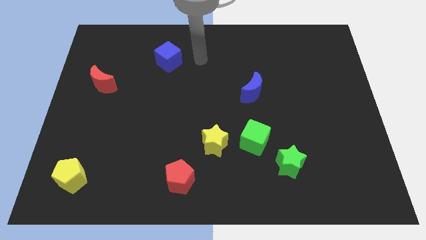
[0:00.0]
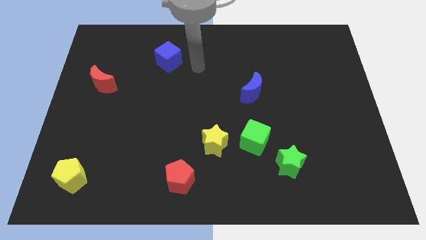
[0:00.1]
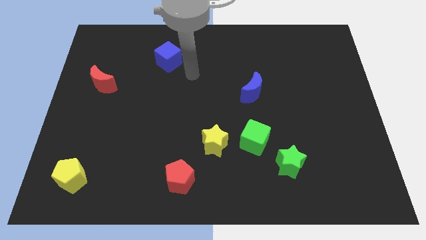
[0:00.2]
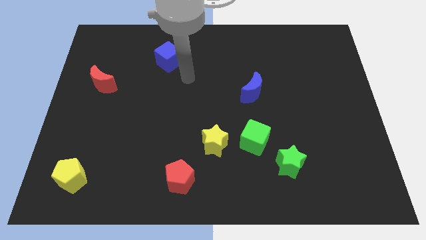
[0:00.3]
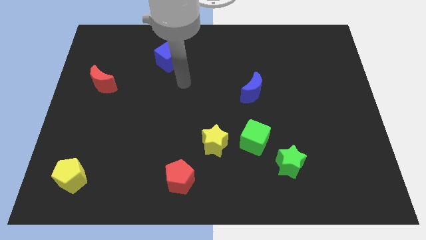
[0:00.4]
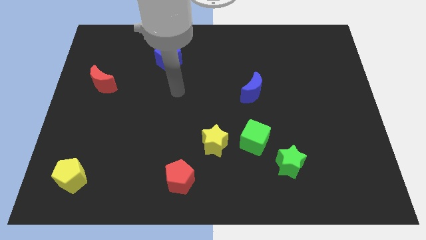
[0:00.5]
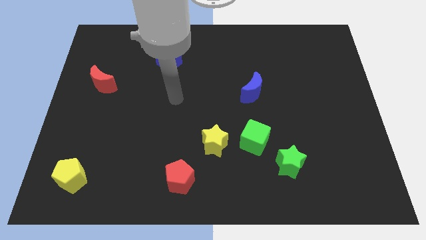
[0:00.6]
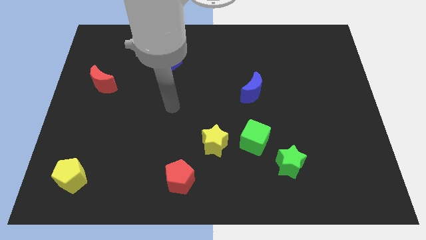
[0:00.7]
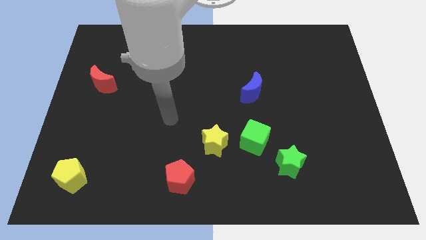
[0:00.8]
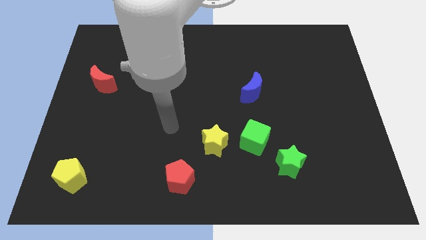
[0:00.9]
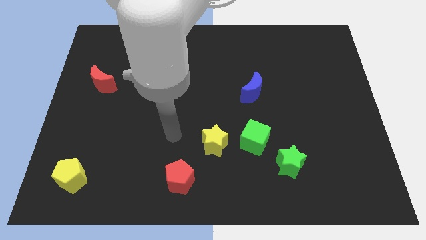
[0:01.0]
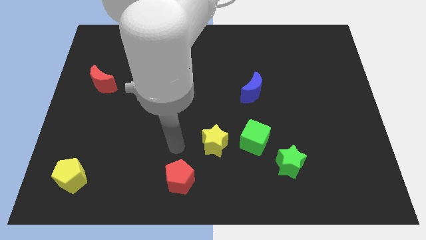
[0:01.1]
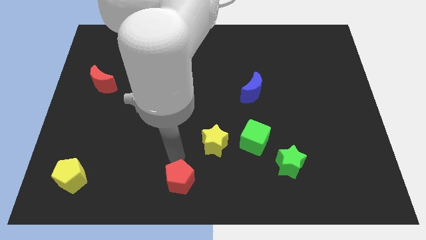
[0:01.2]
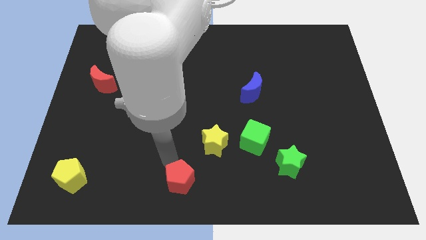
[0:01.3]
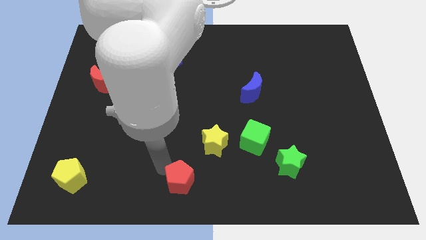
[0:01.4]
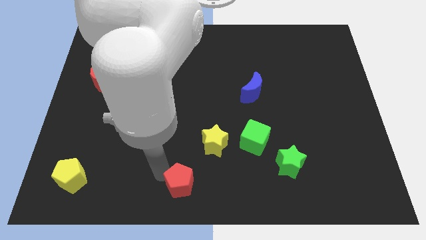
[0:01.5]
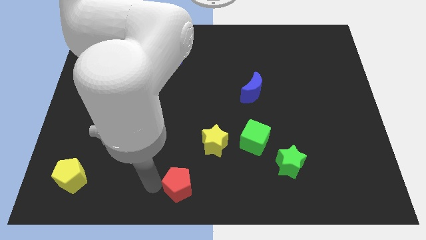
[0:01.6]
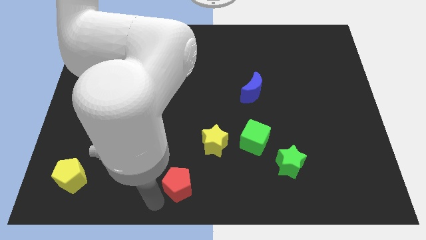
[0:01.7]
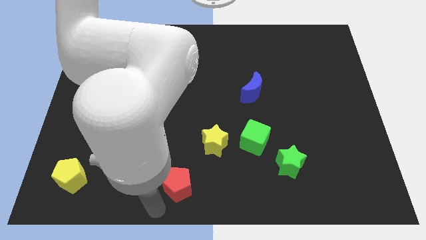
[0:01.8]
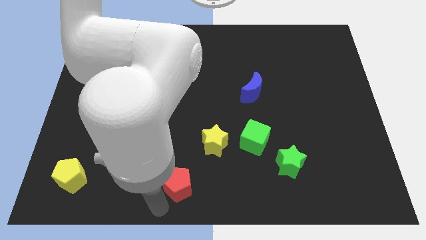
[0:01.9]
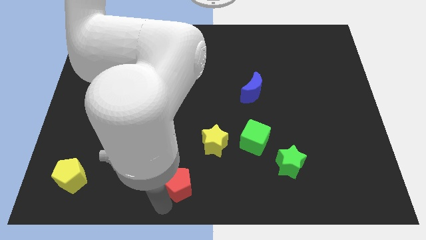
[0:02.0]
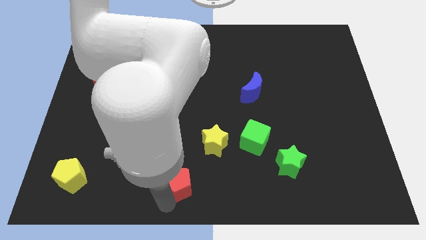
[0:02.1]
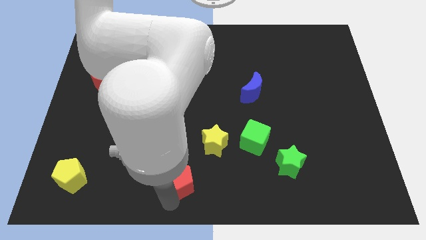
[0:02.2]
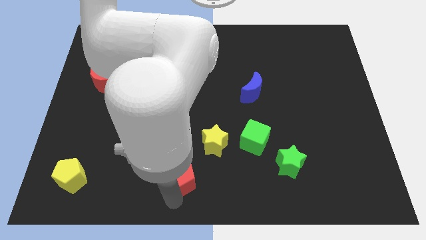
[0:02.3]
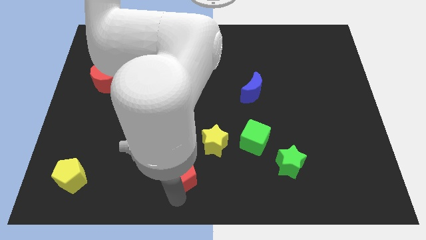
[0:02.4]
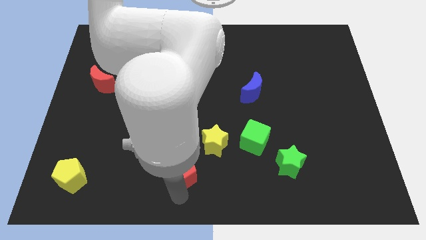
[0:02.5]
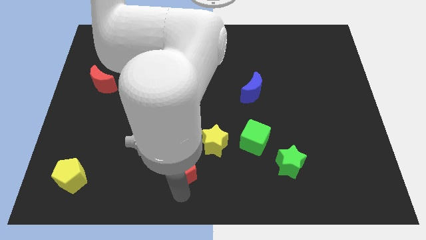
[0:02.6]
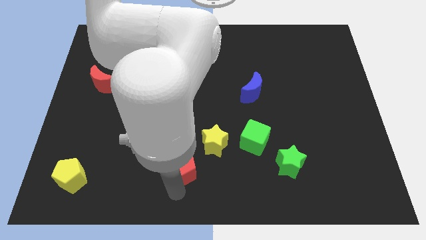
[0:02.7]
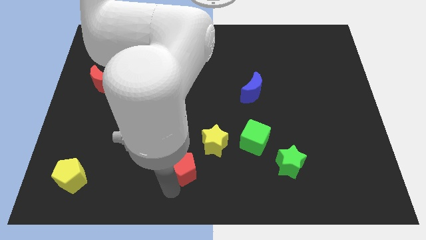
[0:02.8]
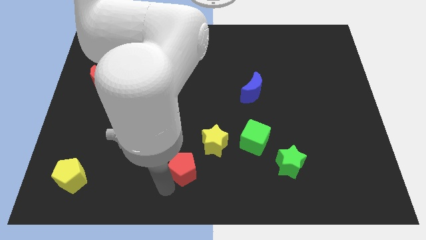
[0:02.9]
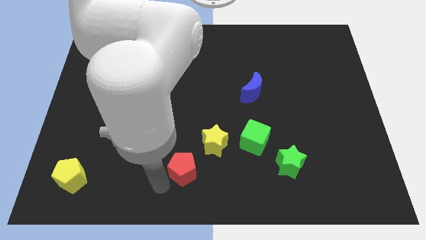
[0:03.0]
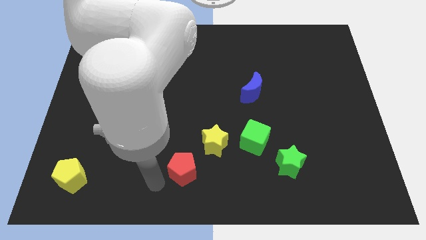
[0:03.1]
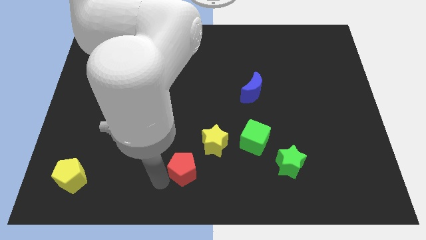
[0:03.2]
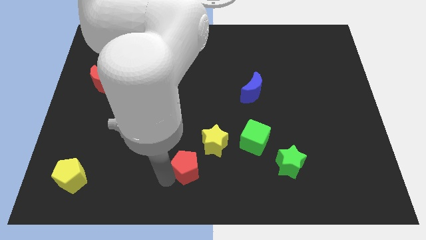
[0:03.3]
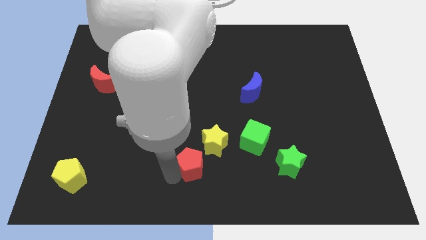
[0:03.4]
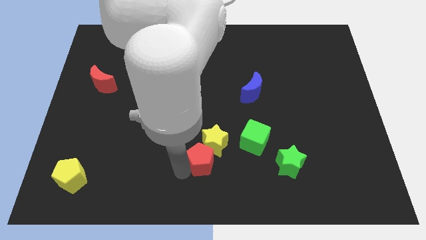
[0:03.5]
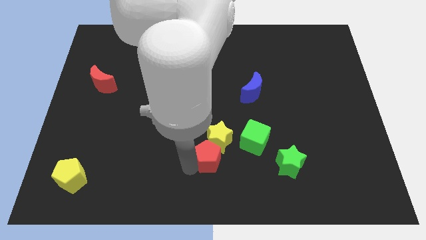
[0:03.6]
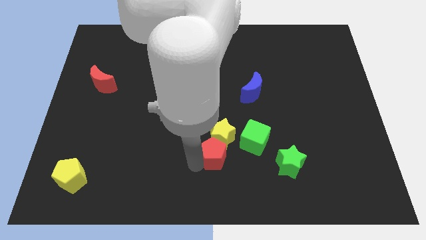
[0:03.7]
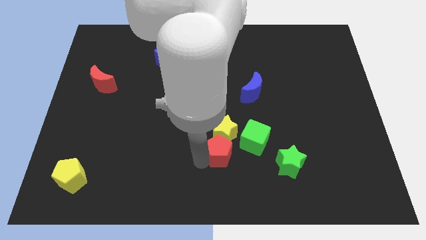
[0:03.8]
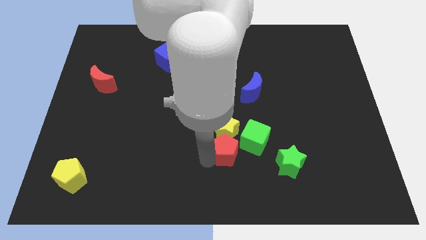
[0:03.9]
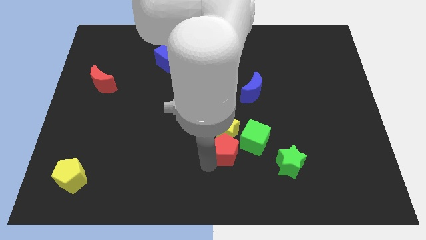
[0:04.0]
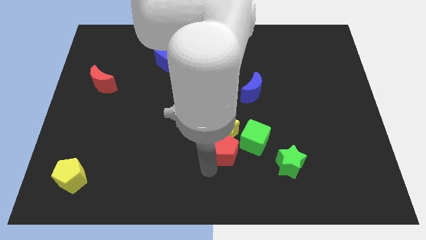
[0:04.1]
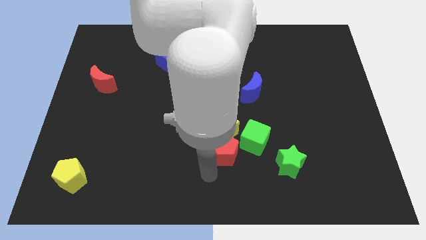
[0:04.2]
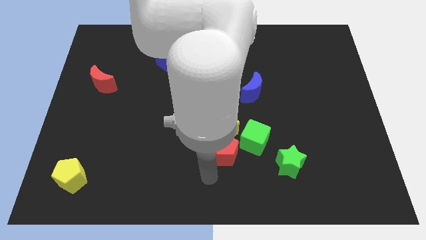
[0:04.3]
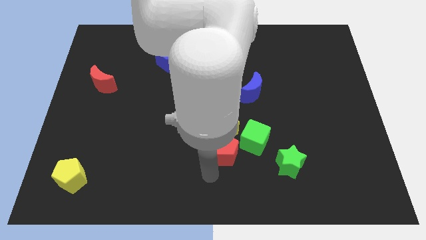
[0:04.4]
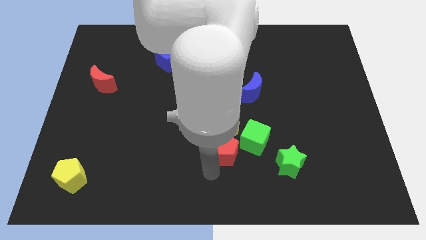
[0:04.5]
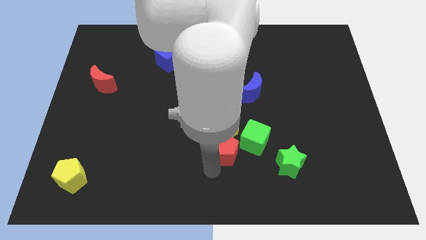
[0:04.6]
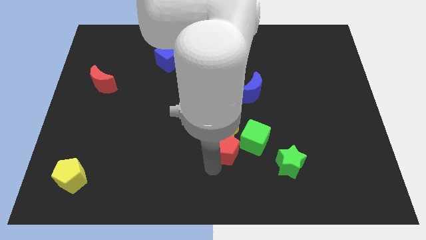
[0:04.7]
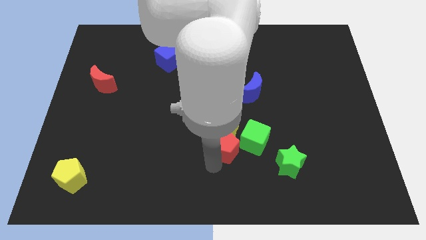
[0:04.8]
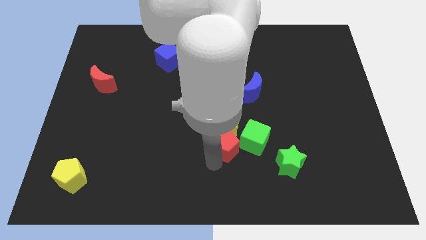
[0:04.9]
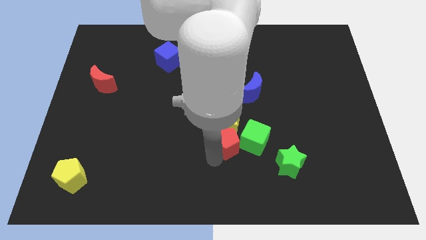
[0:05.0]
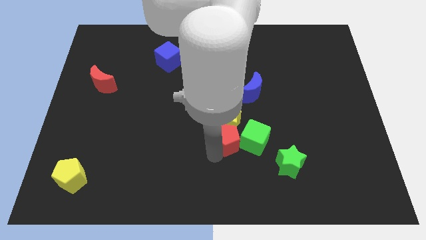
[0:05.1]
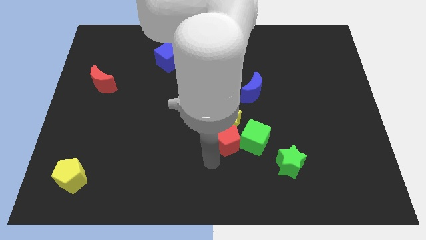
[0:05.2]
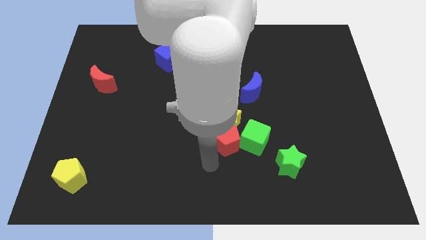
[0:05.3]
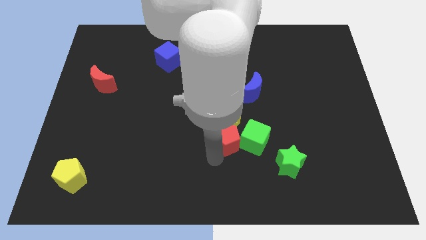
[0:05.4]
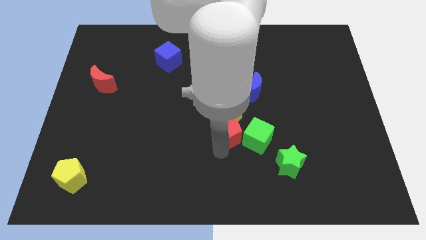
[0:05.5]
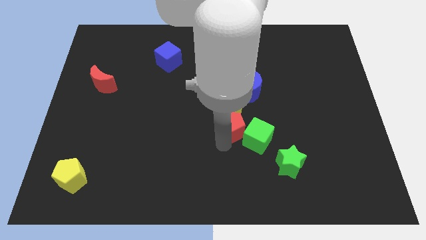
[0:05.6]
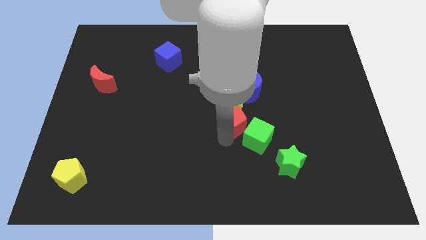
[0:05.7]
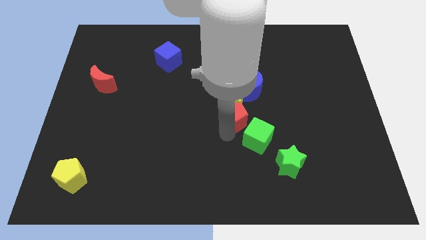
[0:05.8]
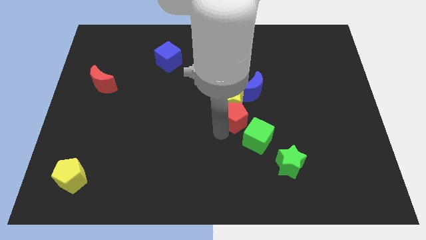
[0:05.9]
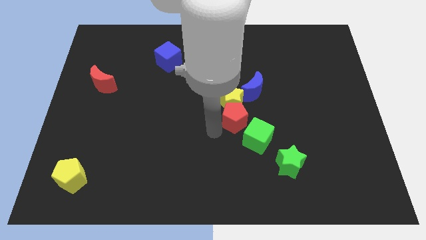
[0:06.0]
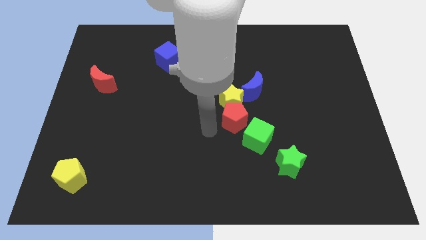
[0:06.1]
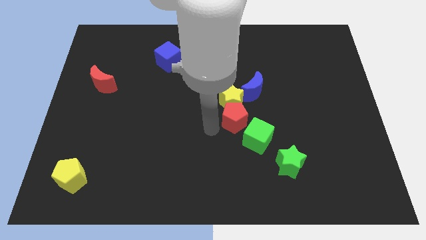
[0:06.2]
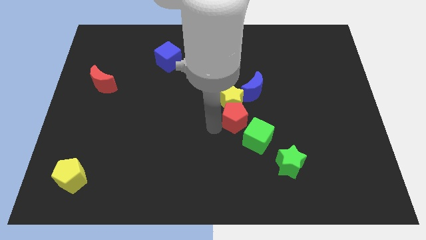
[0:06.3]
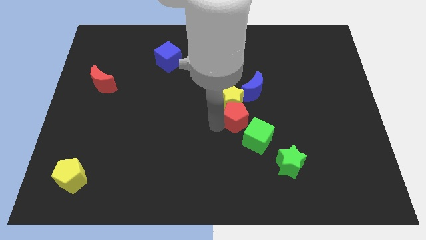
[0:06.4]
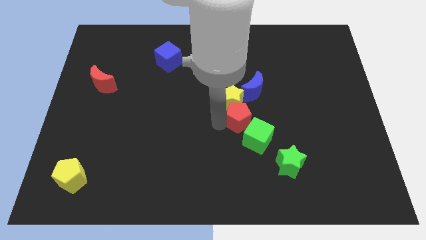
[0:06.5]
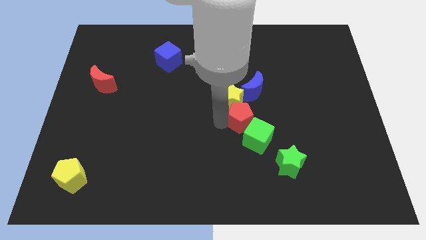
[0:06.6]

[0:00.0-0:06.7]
push the red pentagon up and then to the right

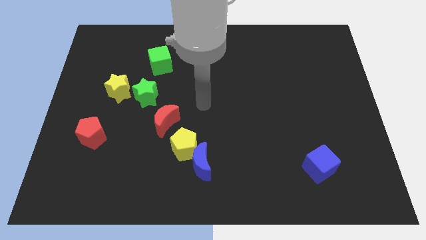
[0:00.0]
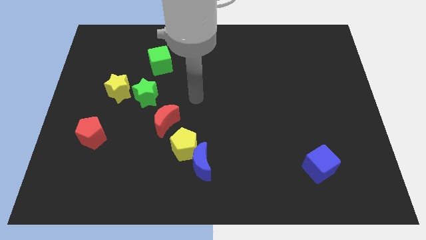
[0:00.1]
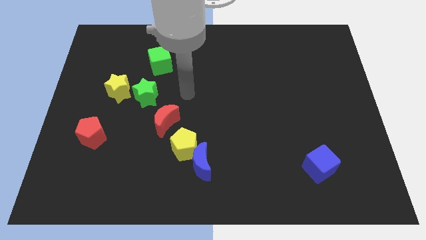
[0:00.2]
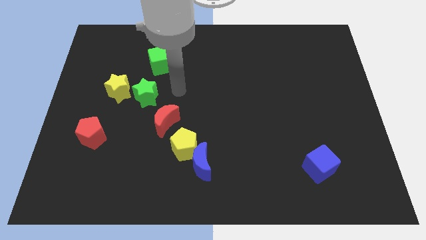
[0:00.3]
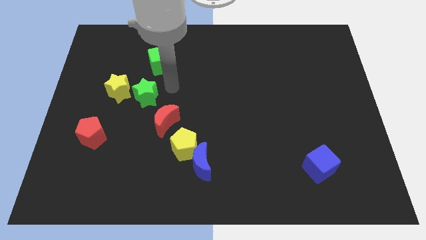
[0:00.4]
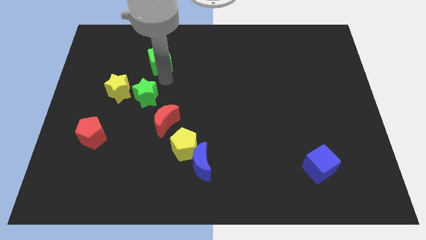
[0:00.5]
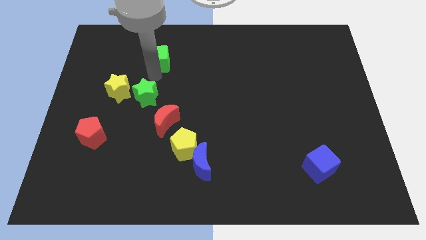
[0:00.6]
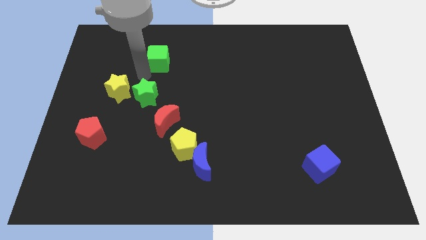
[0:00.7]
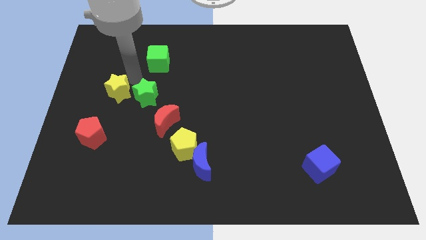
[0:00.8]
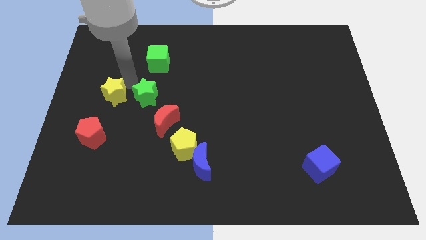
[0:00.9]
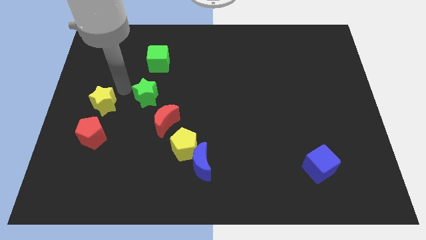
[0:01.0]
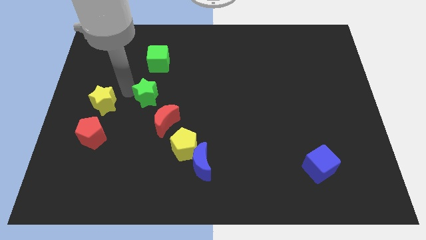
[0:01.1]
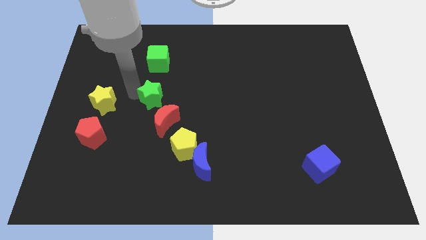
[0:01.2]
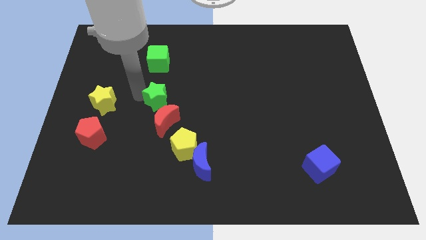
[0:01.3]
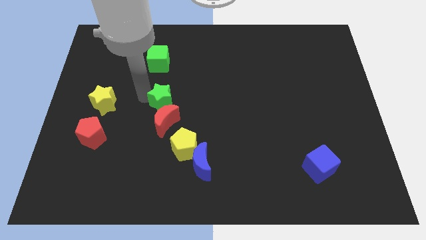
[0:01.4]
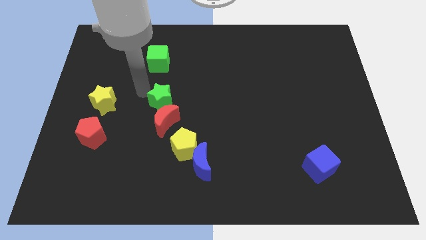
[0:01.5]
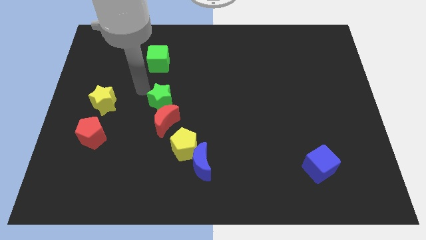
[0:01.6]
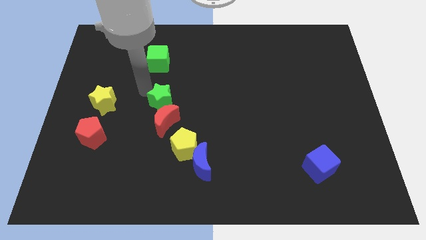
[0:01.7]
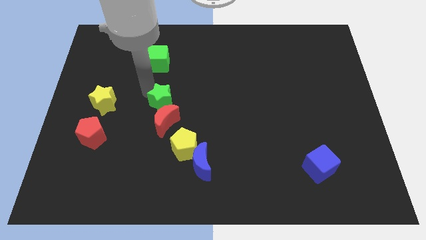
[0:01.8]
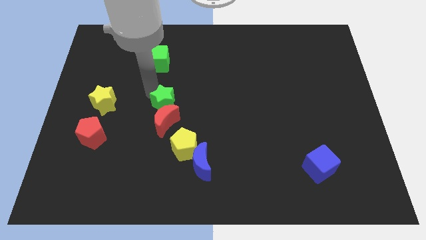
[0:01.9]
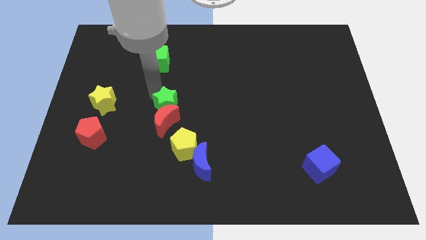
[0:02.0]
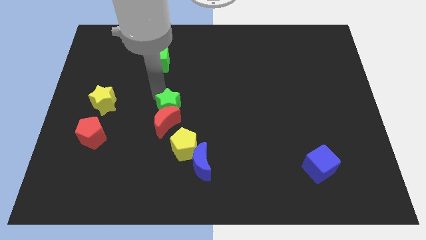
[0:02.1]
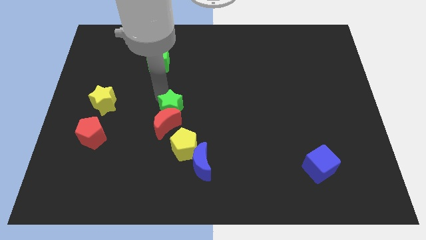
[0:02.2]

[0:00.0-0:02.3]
slide the green star downwards and right diagonally slightly
